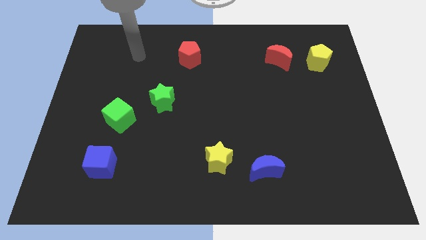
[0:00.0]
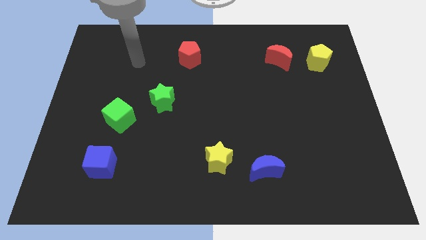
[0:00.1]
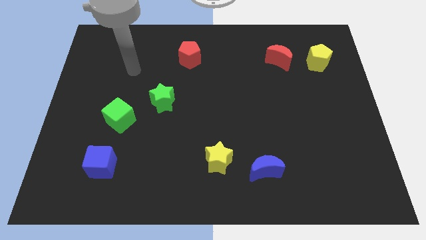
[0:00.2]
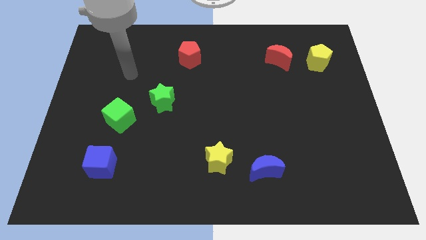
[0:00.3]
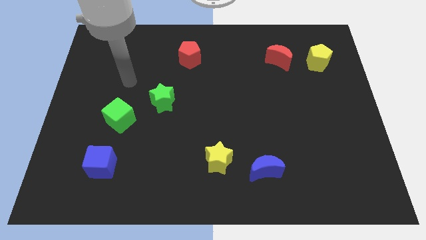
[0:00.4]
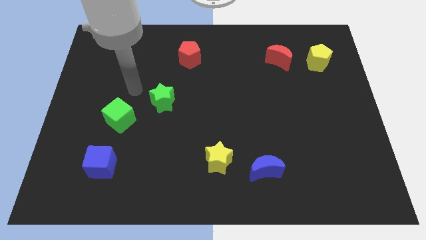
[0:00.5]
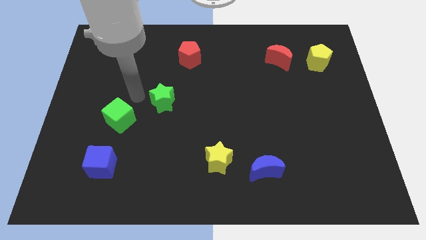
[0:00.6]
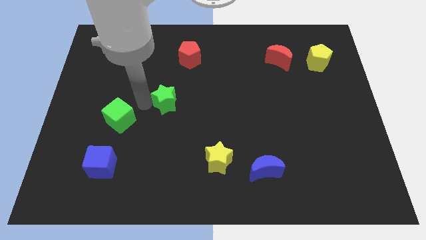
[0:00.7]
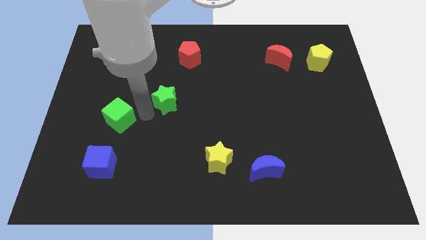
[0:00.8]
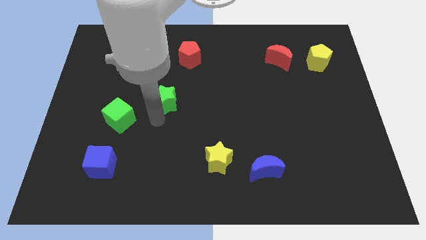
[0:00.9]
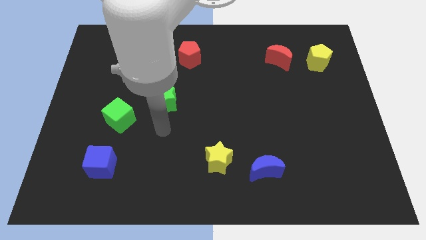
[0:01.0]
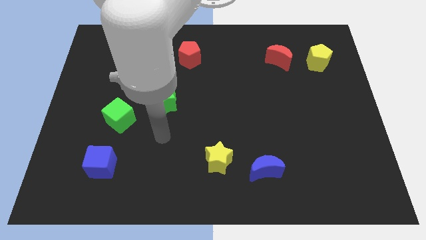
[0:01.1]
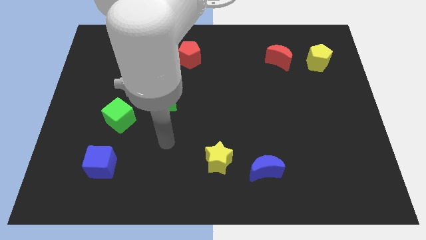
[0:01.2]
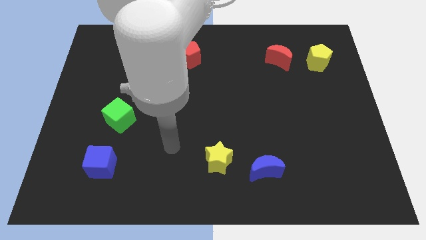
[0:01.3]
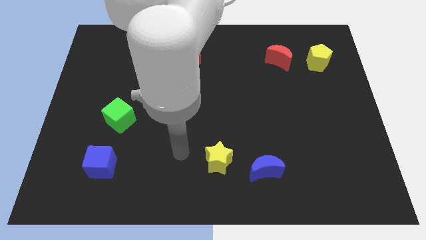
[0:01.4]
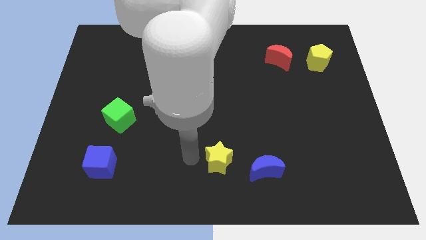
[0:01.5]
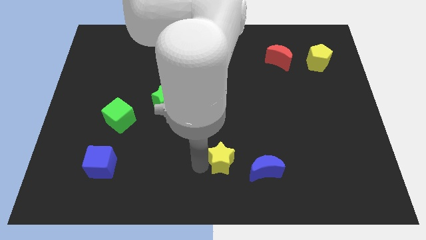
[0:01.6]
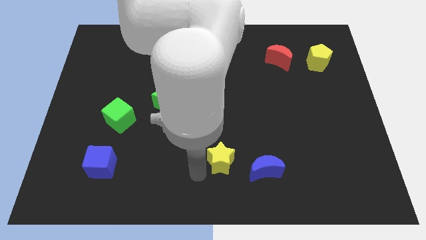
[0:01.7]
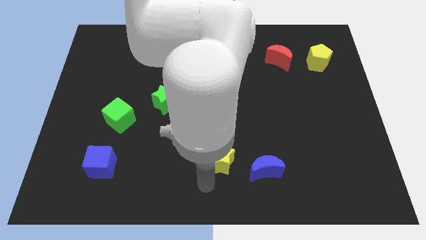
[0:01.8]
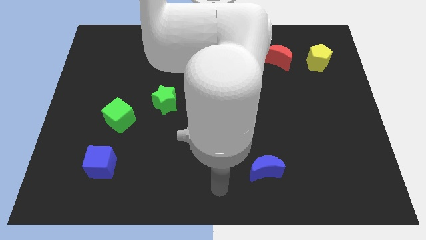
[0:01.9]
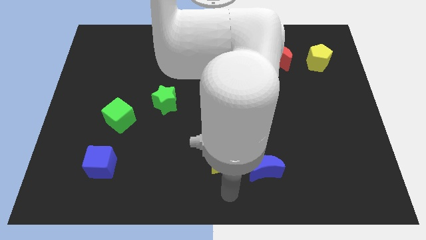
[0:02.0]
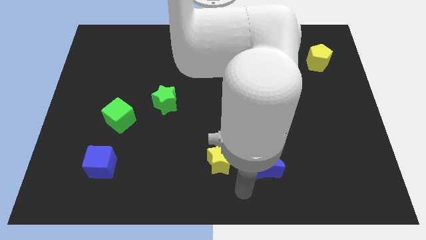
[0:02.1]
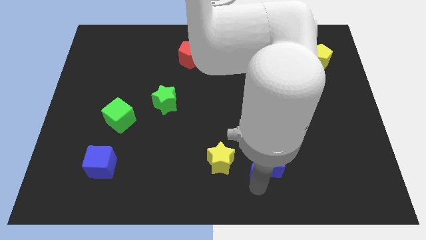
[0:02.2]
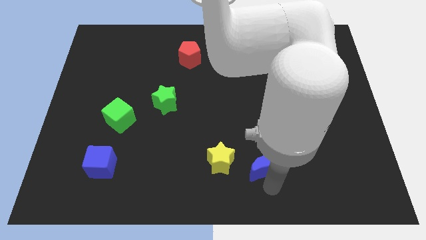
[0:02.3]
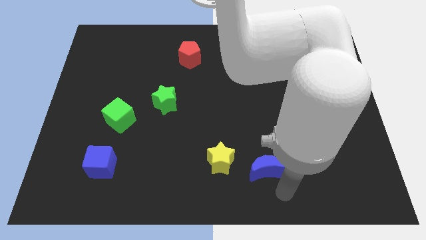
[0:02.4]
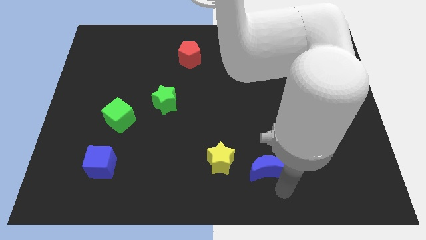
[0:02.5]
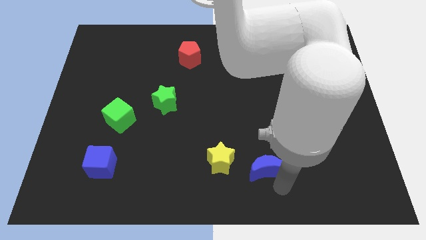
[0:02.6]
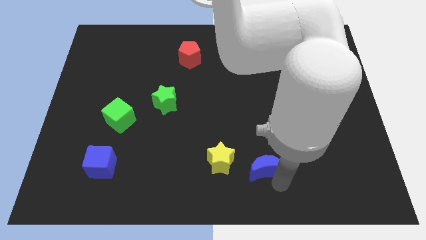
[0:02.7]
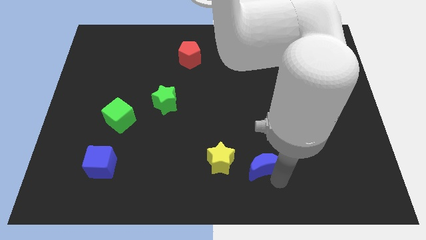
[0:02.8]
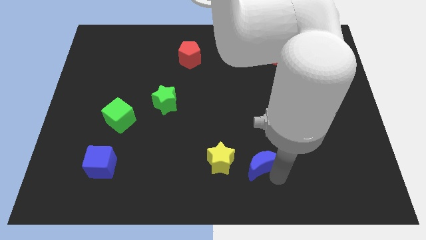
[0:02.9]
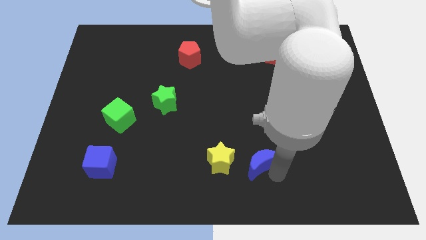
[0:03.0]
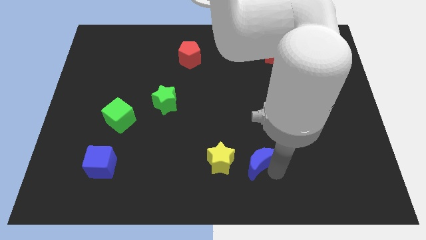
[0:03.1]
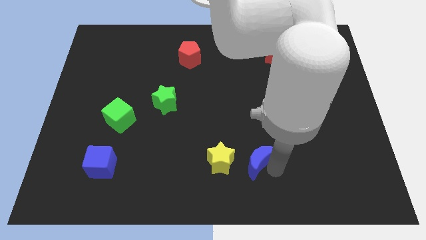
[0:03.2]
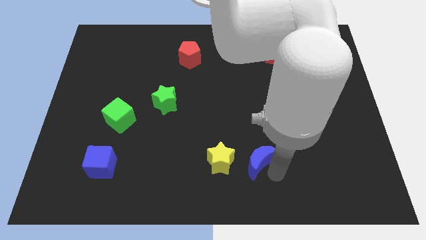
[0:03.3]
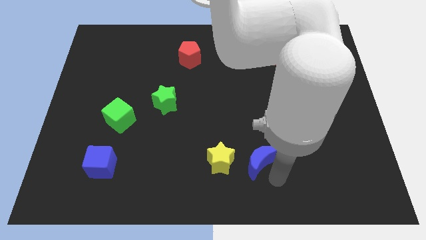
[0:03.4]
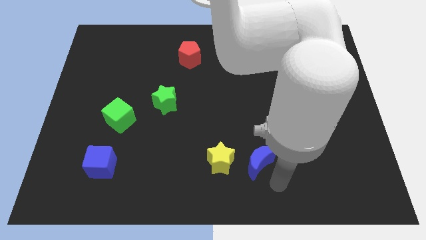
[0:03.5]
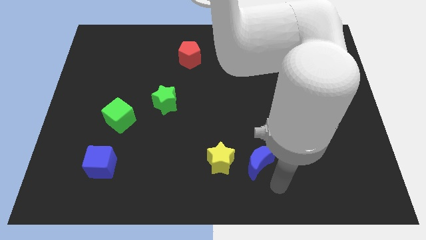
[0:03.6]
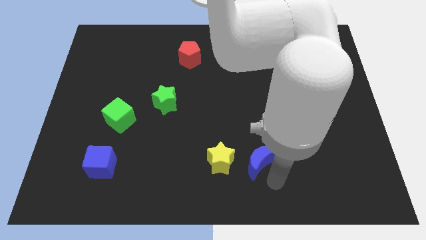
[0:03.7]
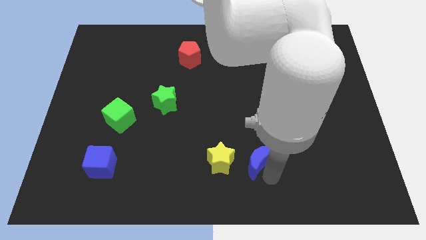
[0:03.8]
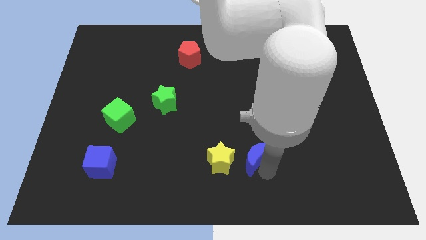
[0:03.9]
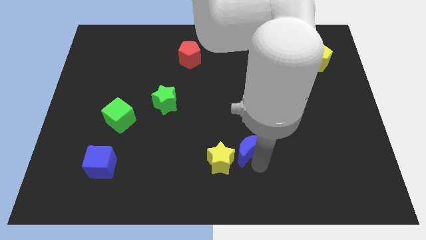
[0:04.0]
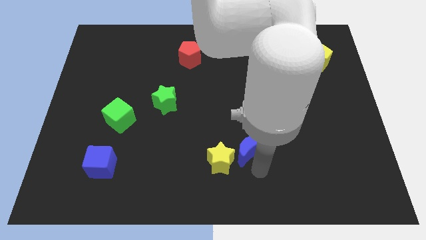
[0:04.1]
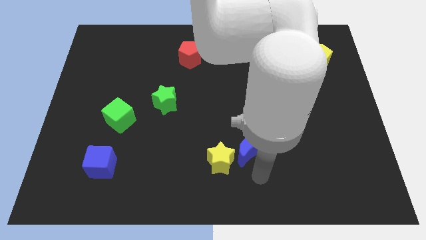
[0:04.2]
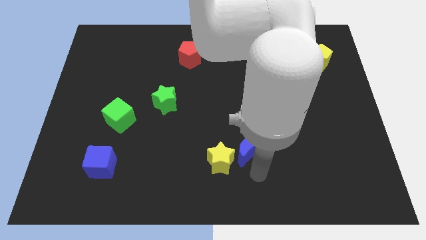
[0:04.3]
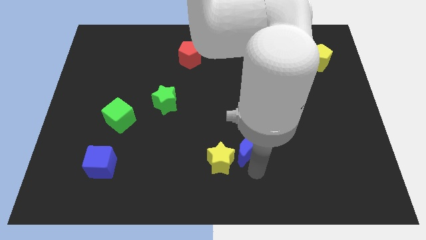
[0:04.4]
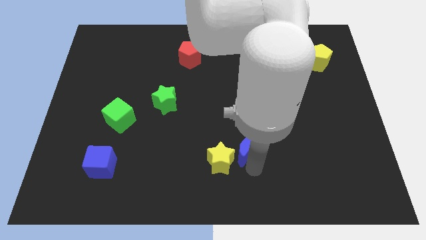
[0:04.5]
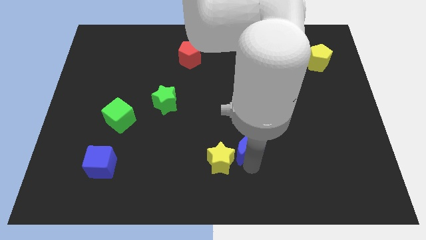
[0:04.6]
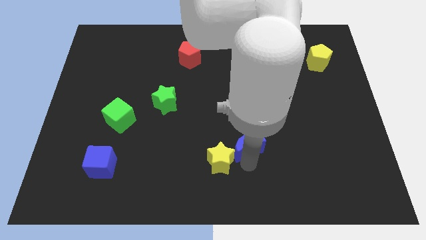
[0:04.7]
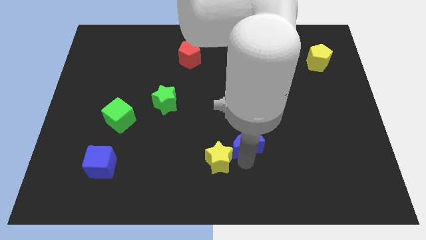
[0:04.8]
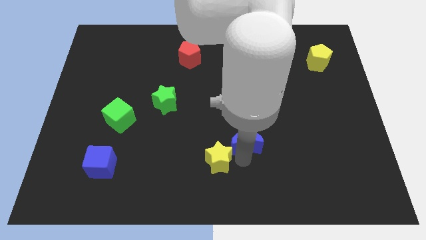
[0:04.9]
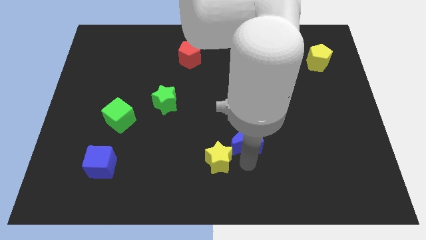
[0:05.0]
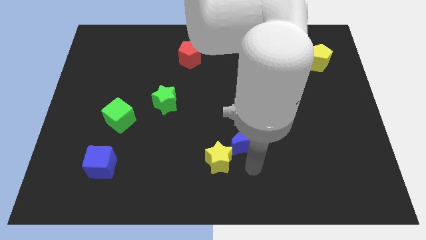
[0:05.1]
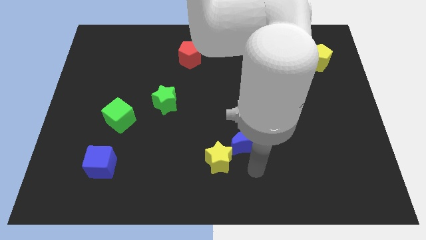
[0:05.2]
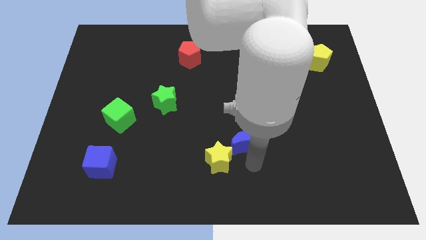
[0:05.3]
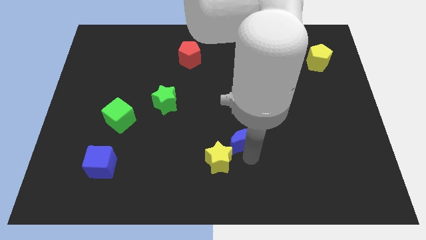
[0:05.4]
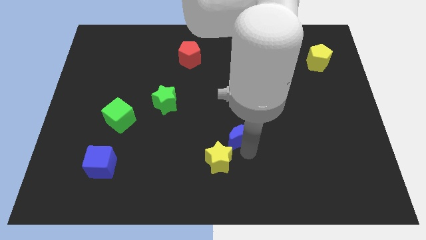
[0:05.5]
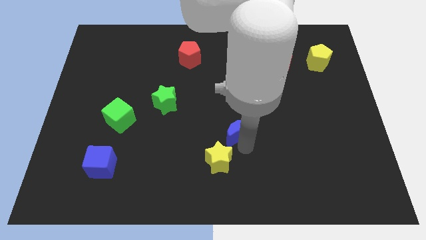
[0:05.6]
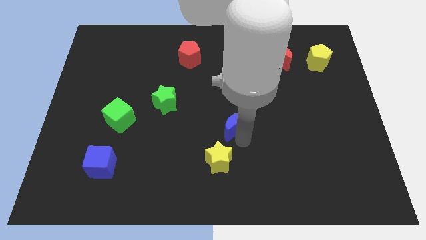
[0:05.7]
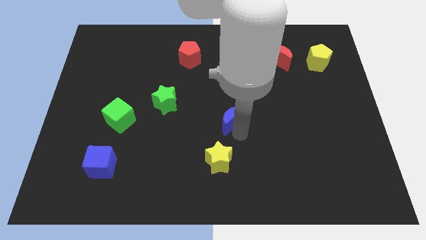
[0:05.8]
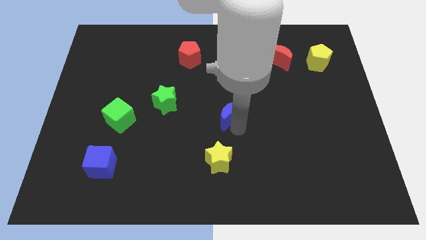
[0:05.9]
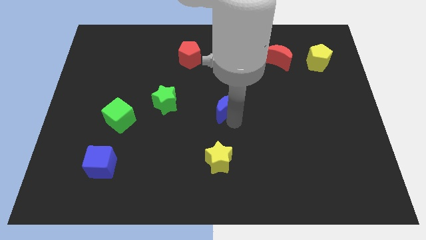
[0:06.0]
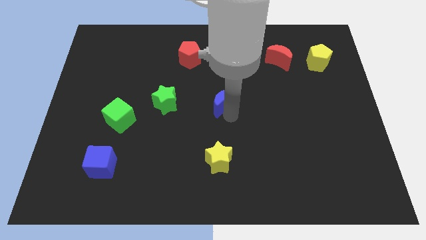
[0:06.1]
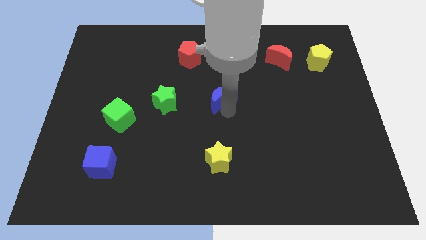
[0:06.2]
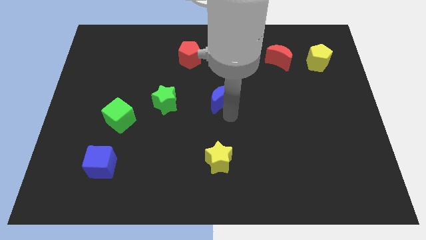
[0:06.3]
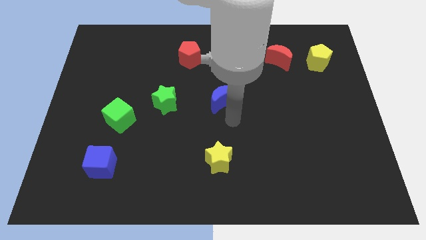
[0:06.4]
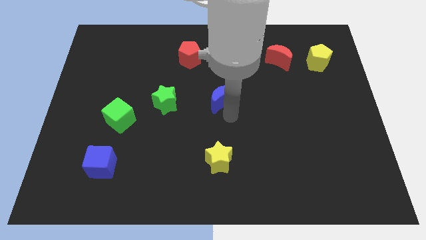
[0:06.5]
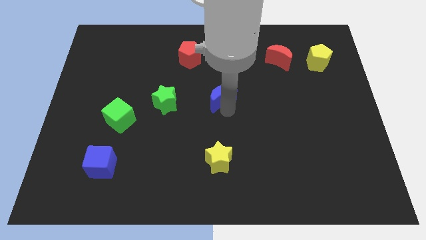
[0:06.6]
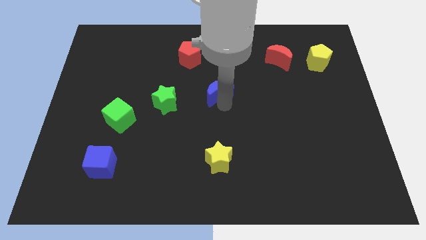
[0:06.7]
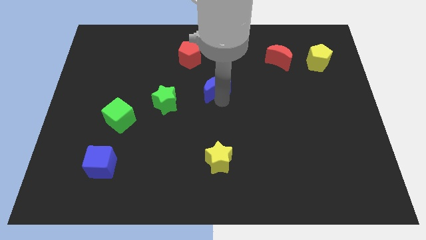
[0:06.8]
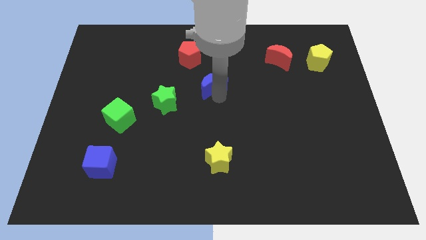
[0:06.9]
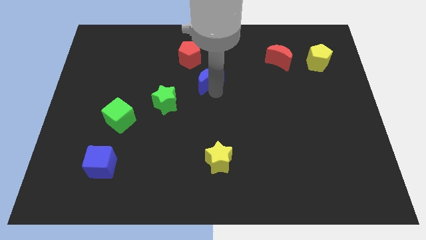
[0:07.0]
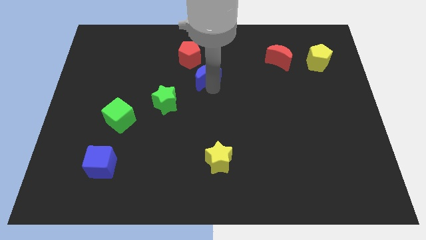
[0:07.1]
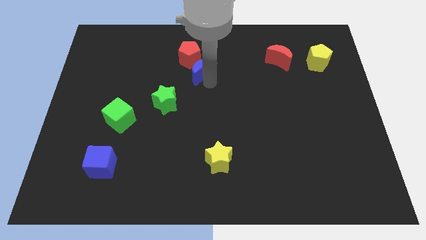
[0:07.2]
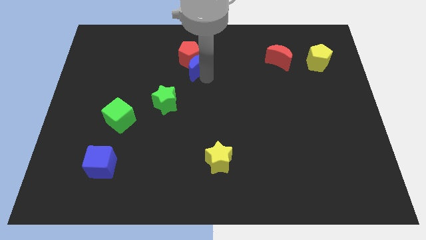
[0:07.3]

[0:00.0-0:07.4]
put the blue moon to the red pentagon
